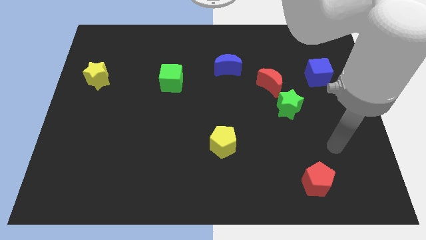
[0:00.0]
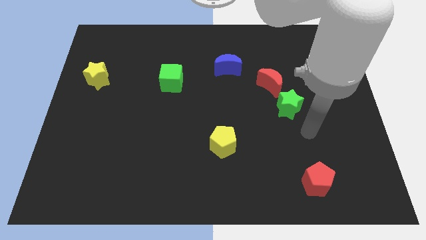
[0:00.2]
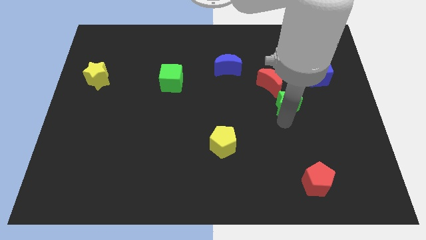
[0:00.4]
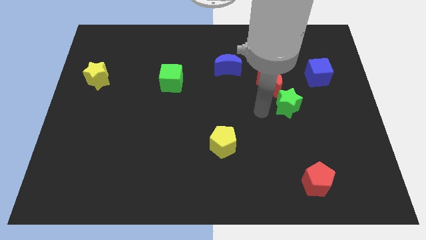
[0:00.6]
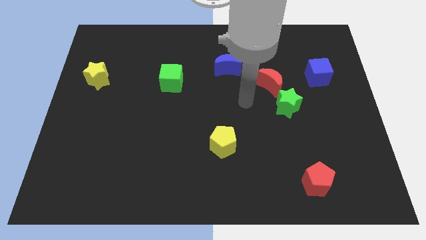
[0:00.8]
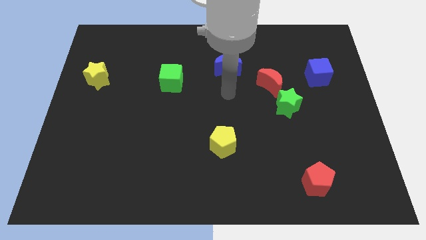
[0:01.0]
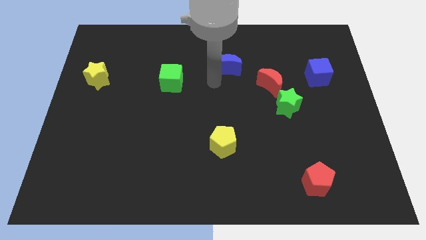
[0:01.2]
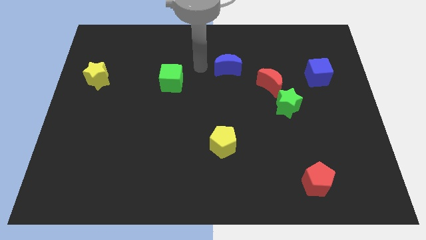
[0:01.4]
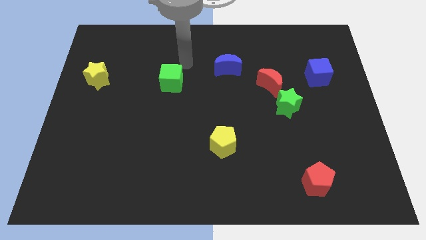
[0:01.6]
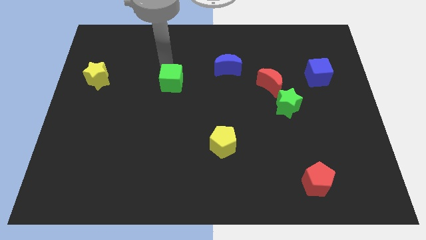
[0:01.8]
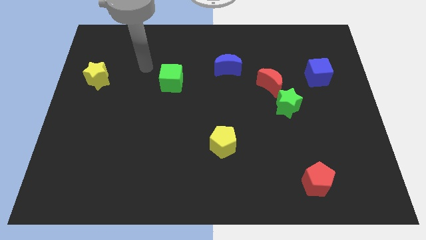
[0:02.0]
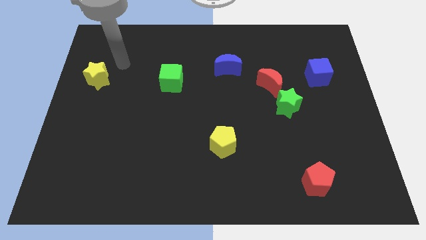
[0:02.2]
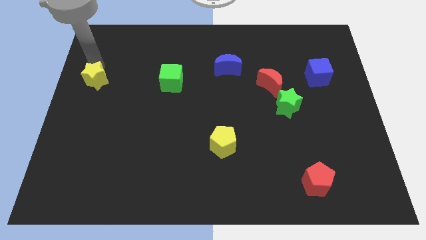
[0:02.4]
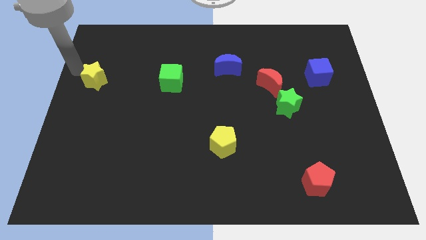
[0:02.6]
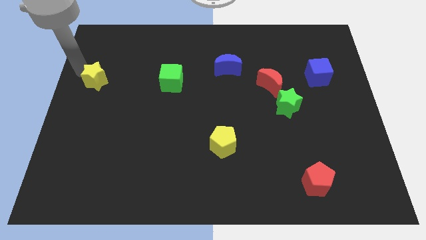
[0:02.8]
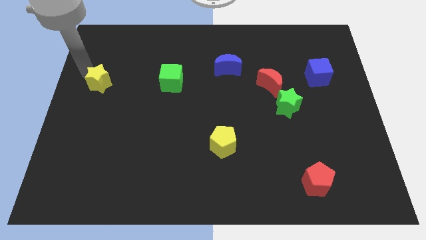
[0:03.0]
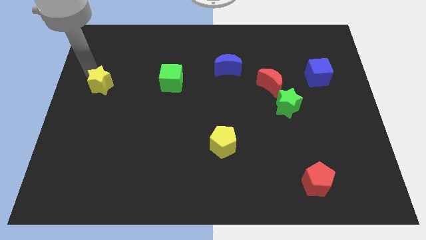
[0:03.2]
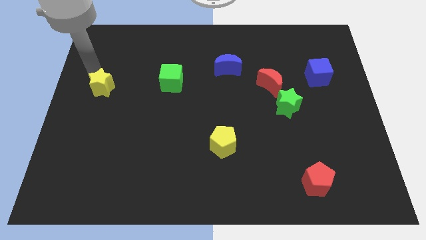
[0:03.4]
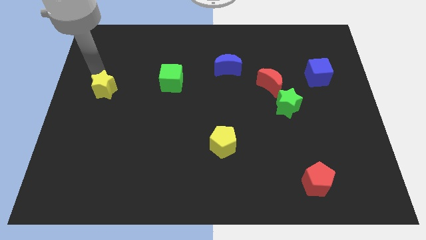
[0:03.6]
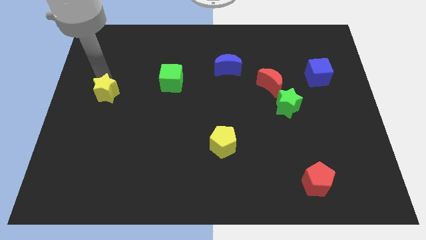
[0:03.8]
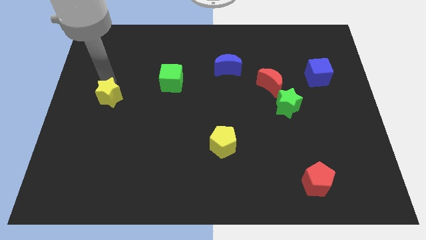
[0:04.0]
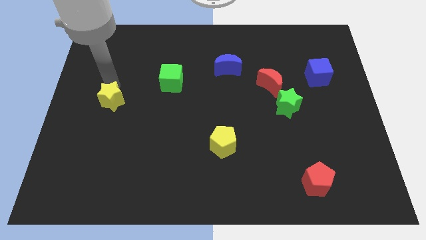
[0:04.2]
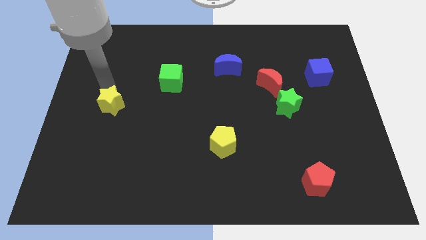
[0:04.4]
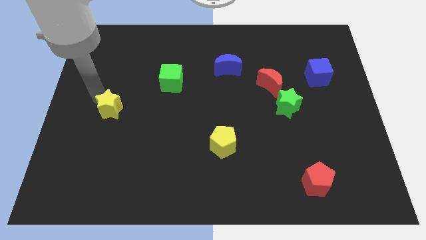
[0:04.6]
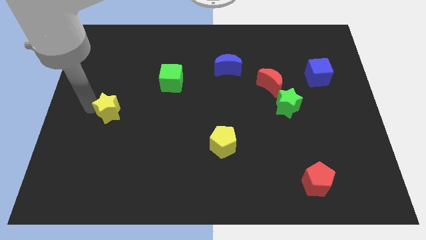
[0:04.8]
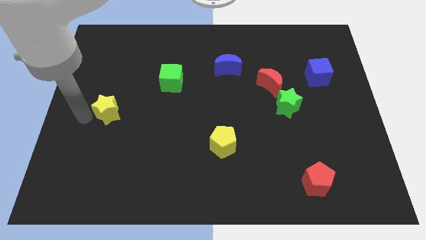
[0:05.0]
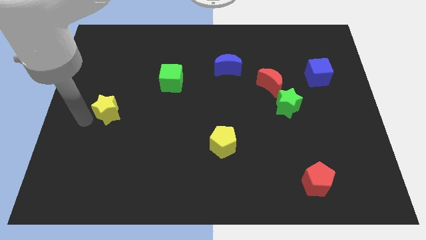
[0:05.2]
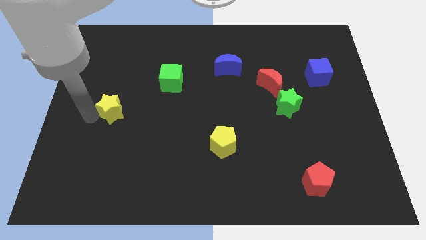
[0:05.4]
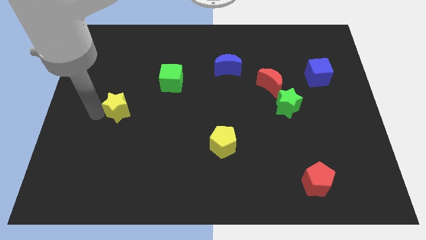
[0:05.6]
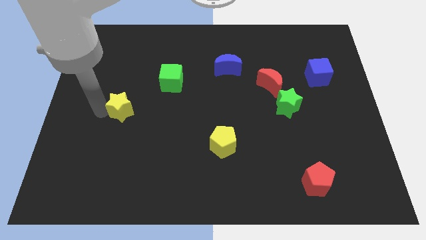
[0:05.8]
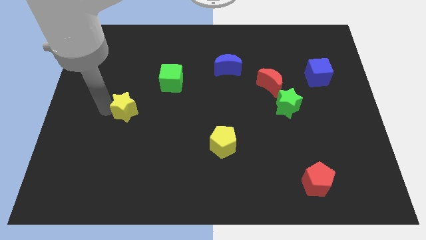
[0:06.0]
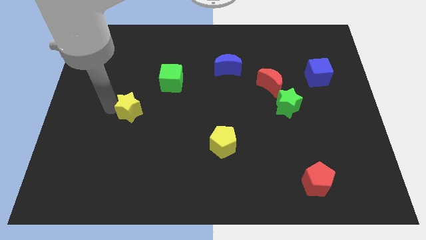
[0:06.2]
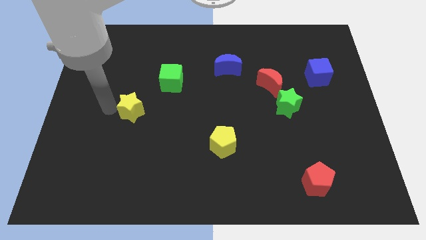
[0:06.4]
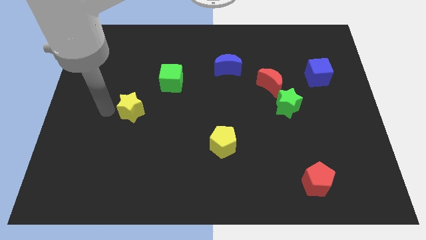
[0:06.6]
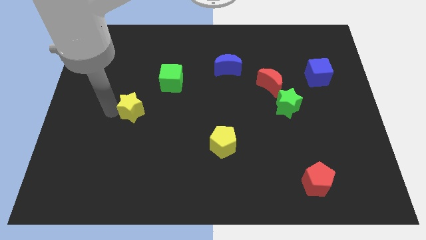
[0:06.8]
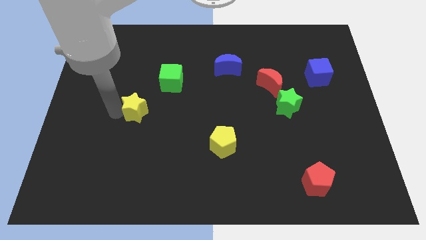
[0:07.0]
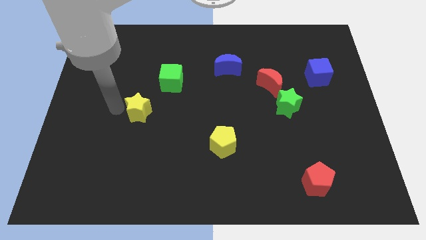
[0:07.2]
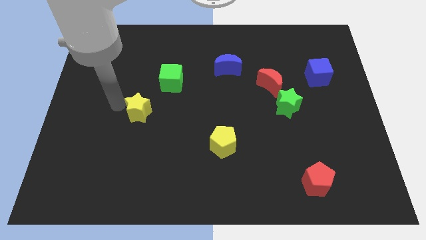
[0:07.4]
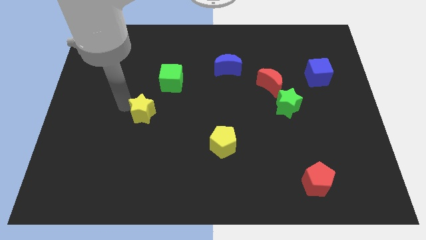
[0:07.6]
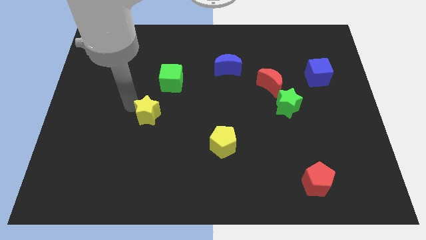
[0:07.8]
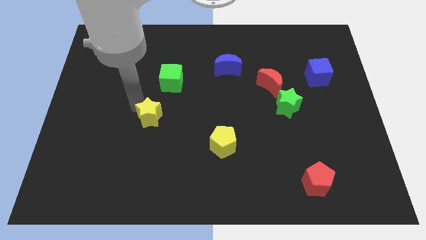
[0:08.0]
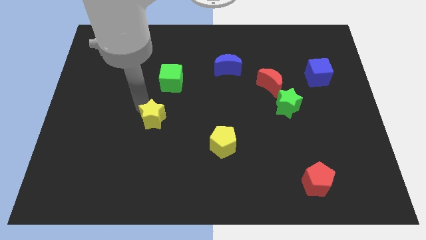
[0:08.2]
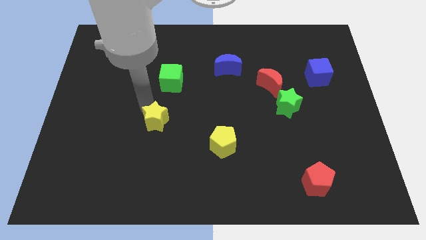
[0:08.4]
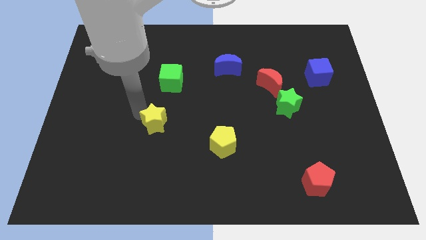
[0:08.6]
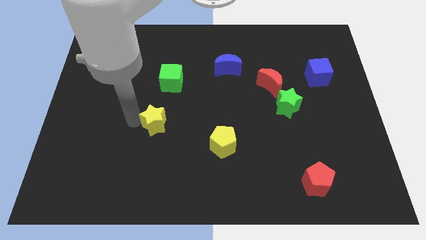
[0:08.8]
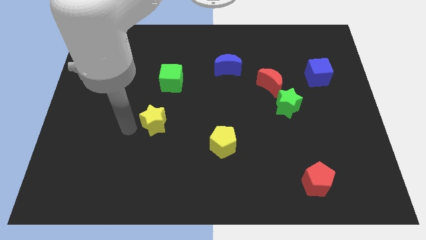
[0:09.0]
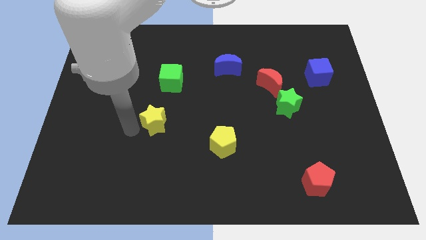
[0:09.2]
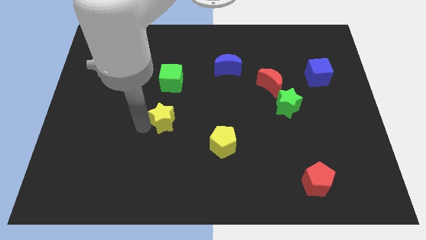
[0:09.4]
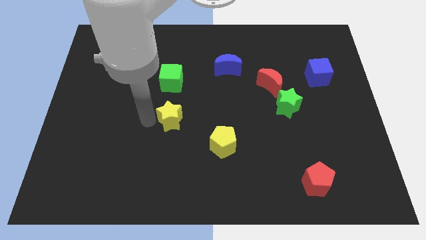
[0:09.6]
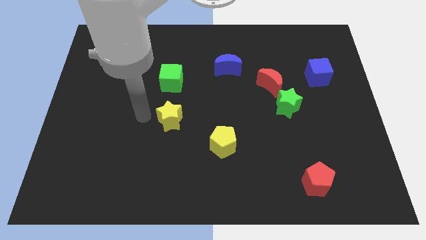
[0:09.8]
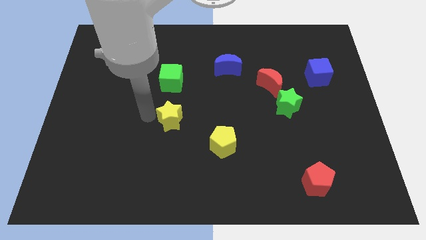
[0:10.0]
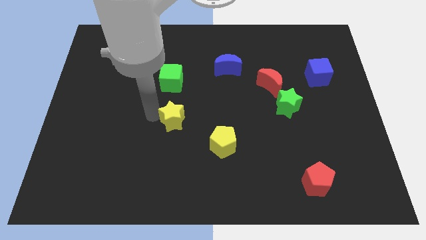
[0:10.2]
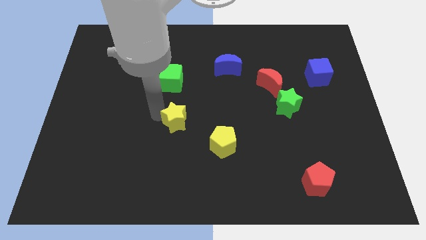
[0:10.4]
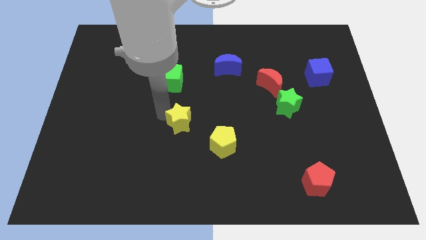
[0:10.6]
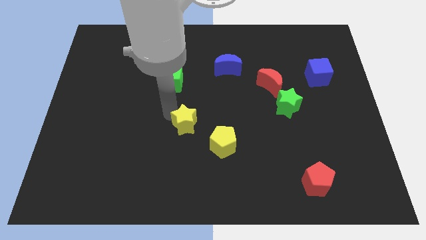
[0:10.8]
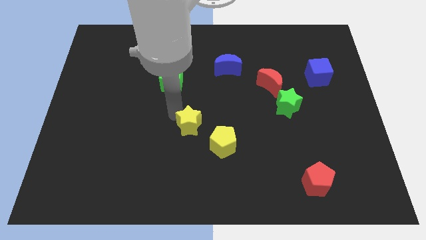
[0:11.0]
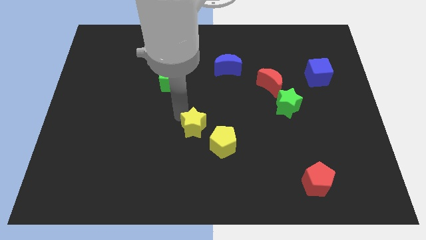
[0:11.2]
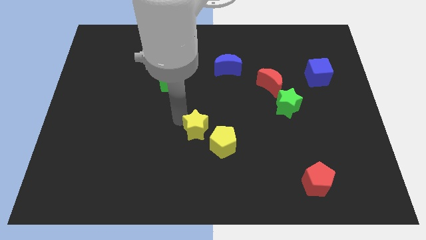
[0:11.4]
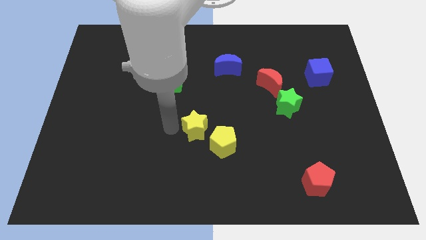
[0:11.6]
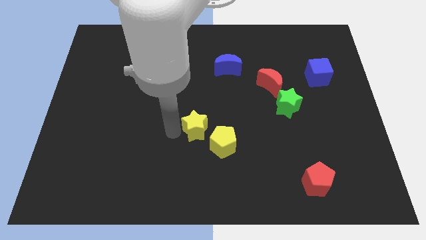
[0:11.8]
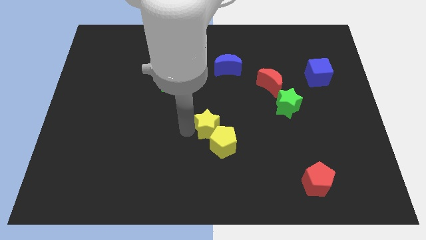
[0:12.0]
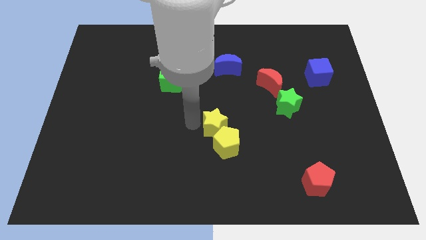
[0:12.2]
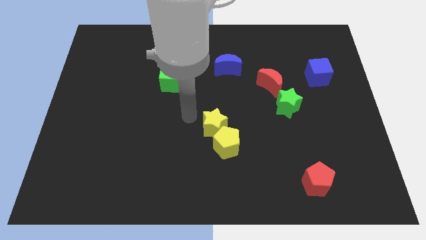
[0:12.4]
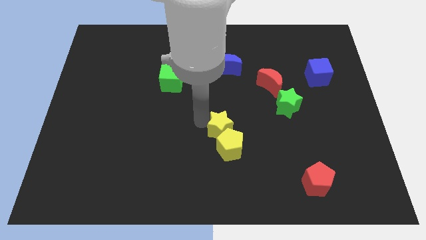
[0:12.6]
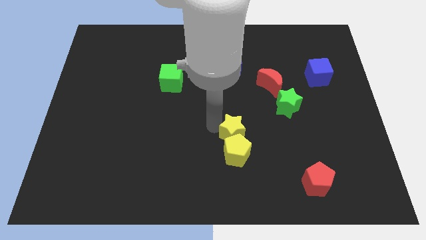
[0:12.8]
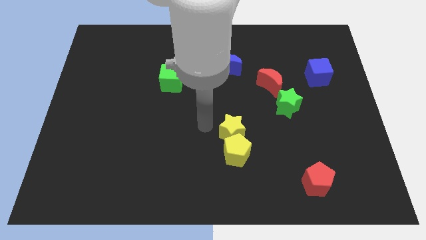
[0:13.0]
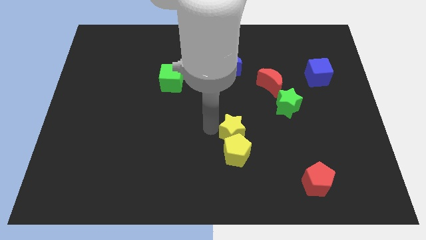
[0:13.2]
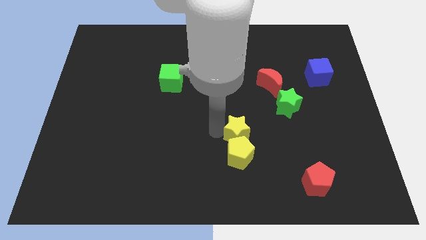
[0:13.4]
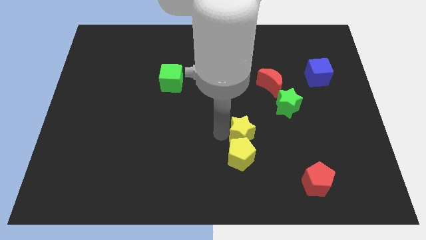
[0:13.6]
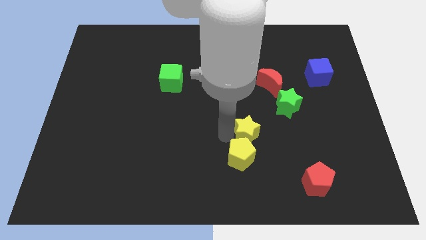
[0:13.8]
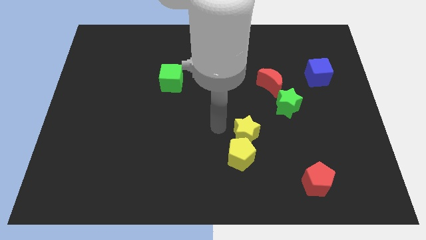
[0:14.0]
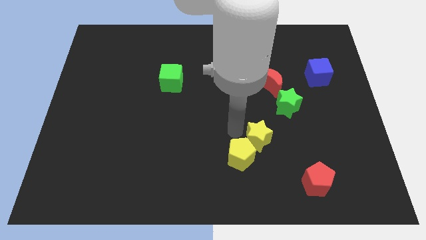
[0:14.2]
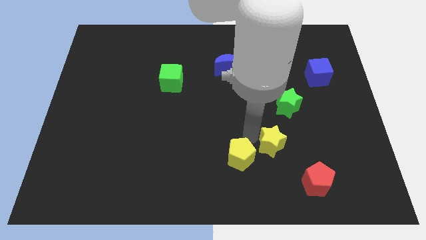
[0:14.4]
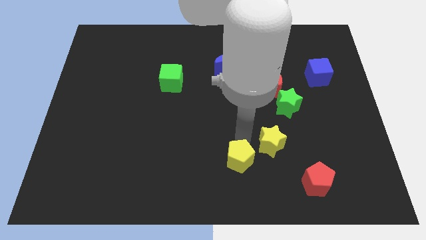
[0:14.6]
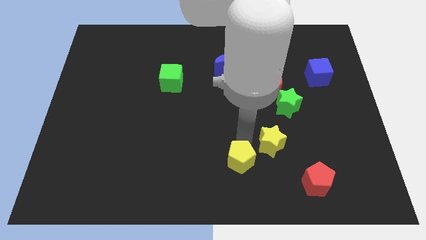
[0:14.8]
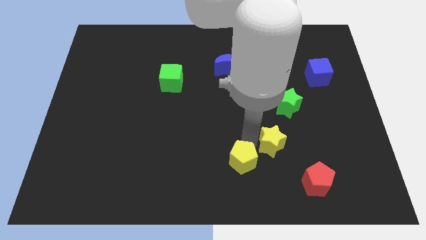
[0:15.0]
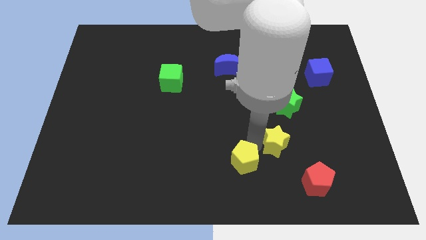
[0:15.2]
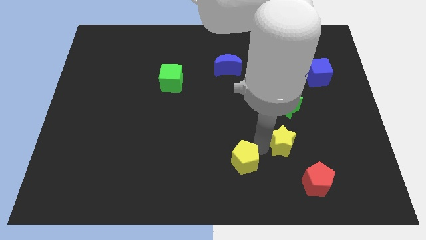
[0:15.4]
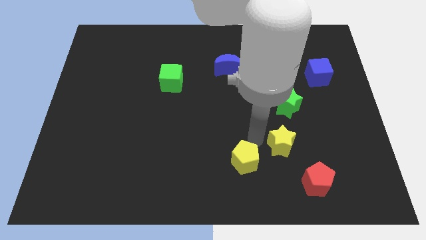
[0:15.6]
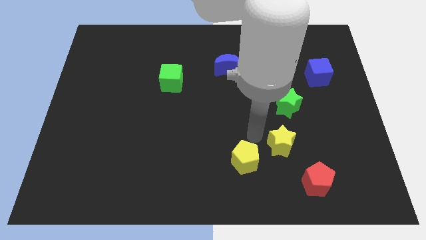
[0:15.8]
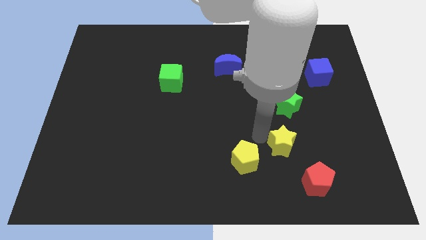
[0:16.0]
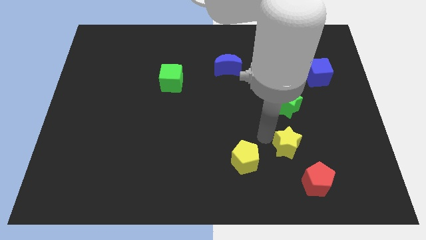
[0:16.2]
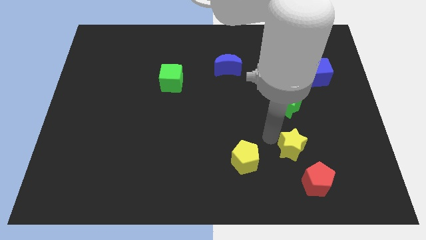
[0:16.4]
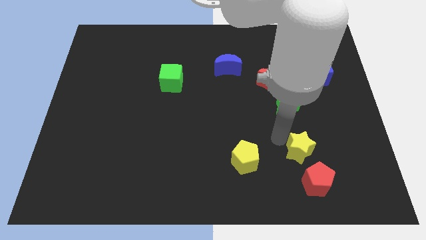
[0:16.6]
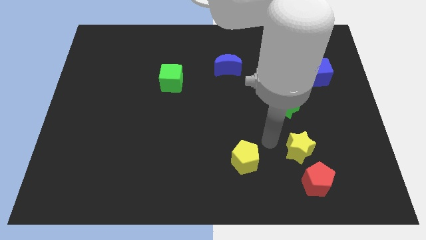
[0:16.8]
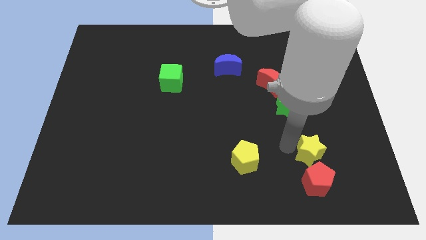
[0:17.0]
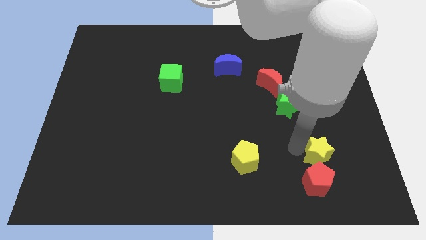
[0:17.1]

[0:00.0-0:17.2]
push the yellow star diagonally up and to the right of the red pentagon
